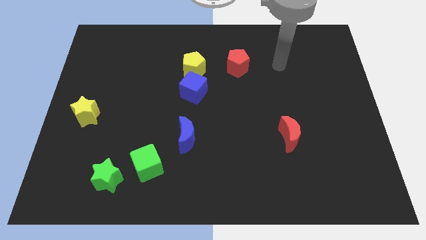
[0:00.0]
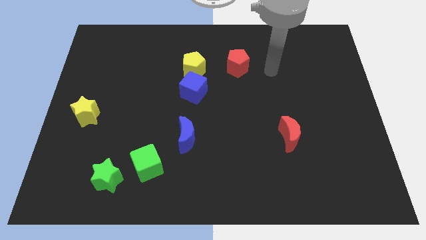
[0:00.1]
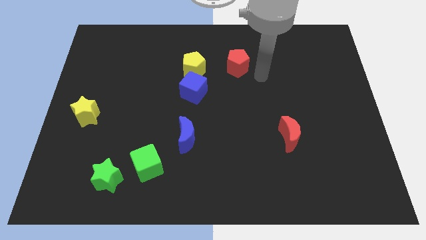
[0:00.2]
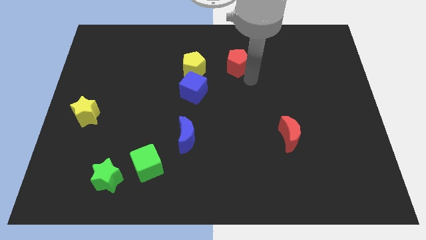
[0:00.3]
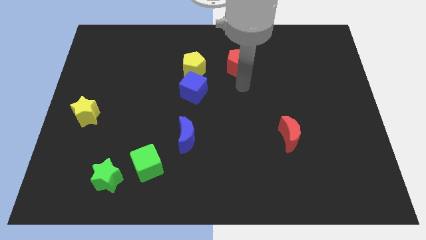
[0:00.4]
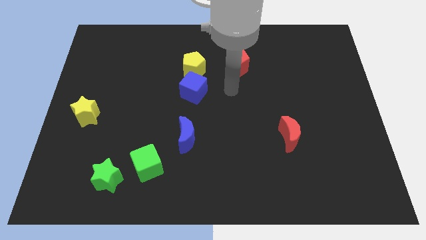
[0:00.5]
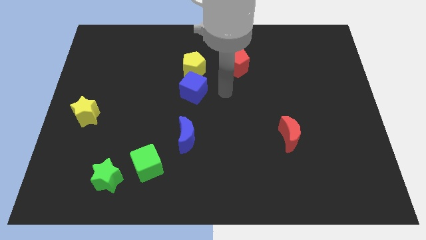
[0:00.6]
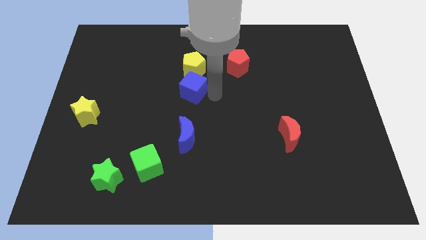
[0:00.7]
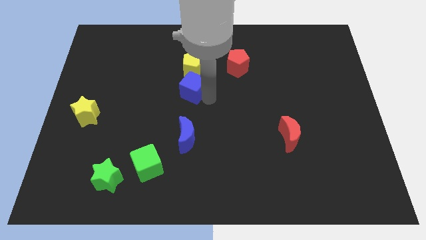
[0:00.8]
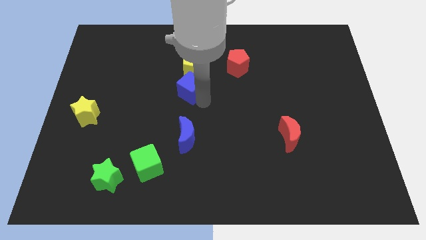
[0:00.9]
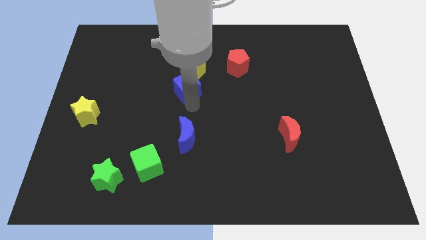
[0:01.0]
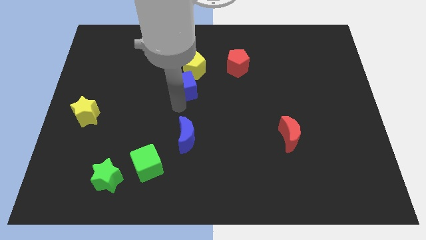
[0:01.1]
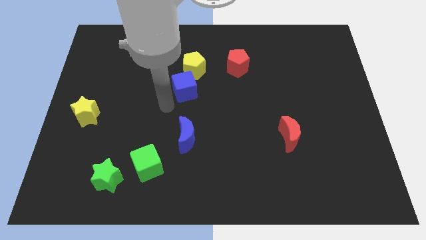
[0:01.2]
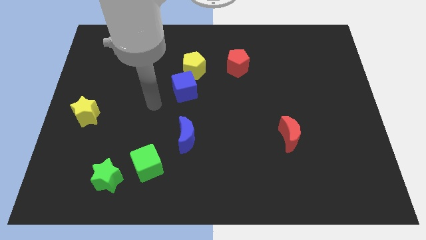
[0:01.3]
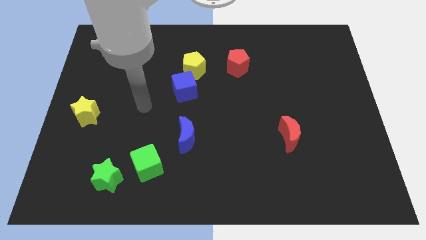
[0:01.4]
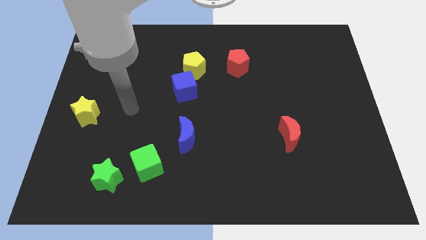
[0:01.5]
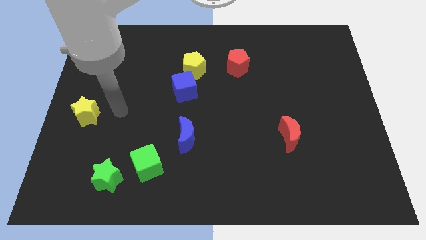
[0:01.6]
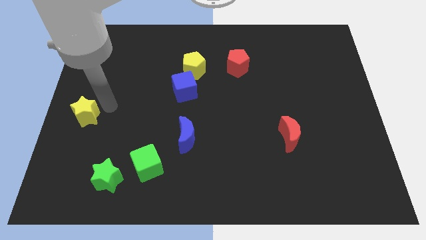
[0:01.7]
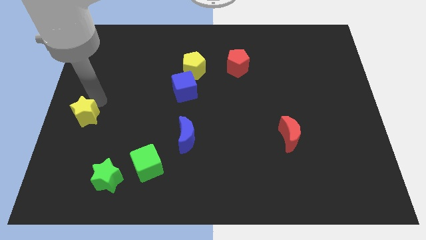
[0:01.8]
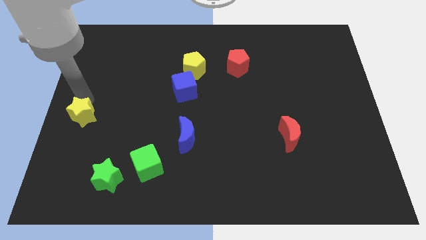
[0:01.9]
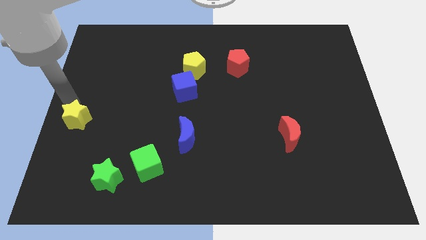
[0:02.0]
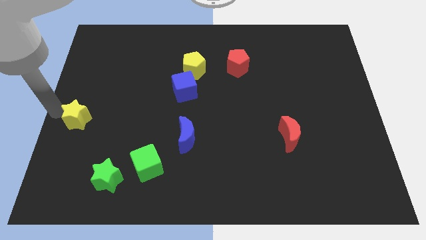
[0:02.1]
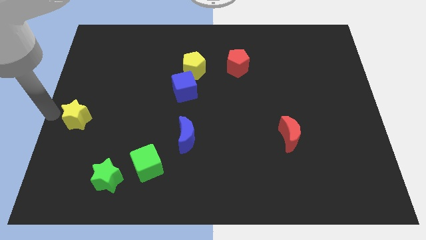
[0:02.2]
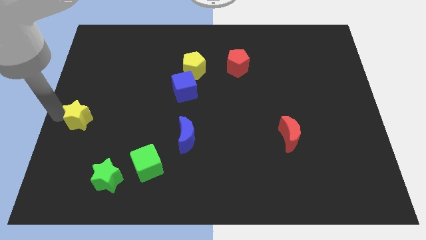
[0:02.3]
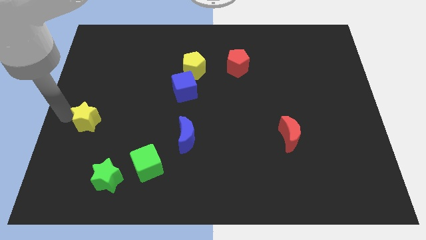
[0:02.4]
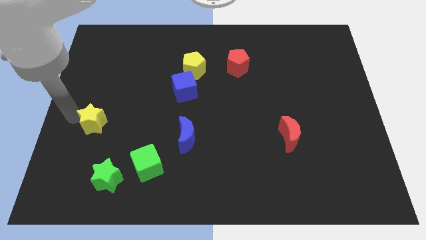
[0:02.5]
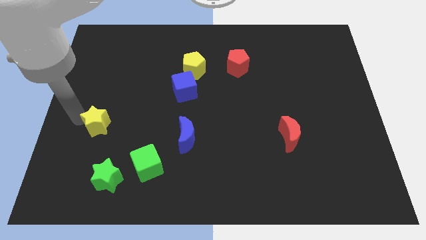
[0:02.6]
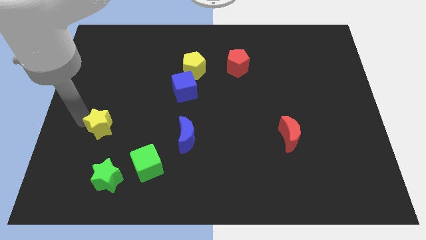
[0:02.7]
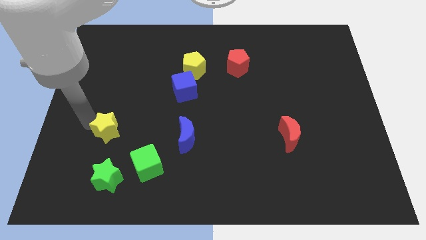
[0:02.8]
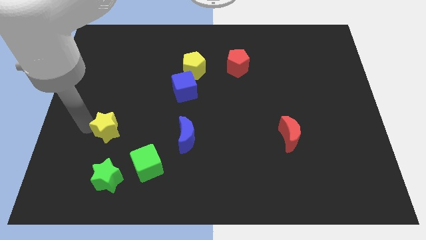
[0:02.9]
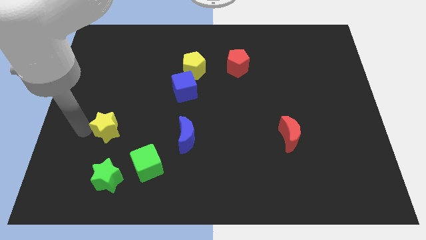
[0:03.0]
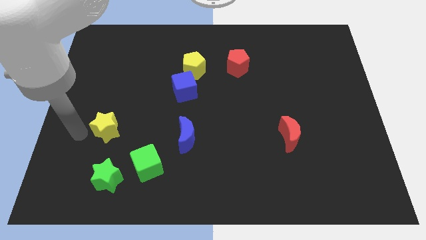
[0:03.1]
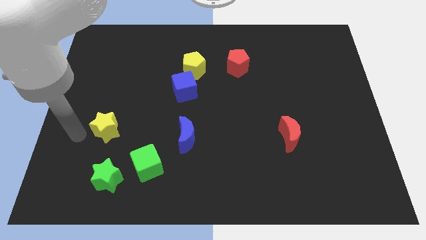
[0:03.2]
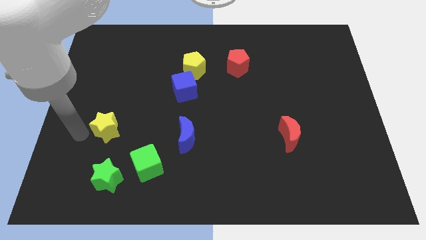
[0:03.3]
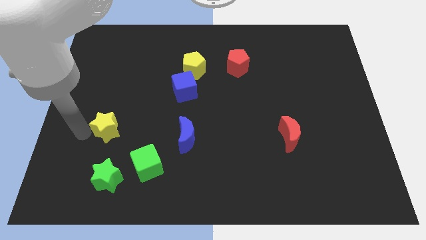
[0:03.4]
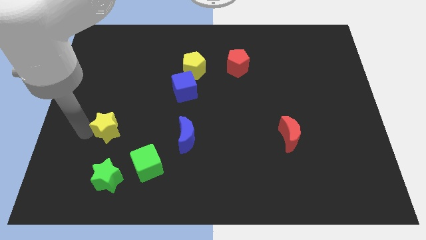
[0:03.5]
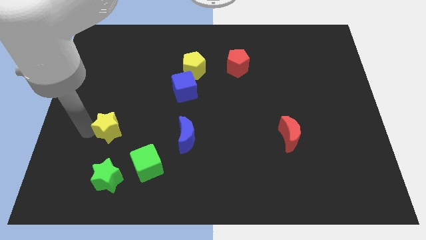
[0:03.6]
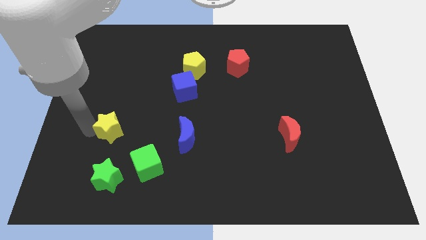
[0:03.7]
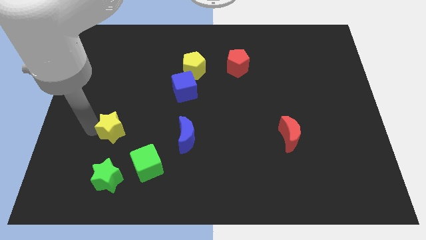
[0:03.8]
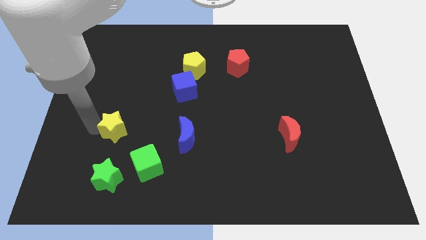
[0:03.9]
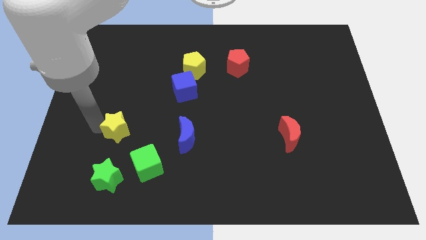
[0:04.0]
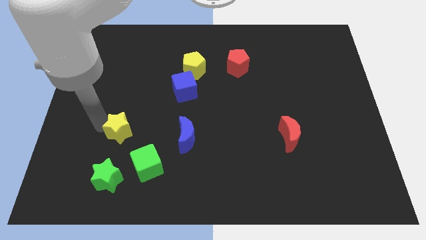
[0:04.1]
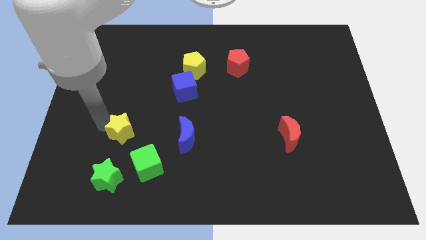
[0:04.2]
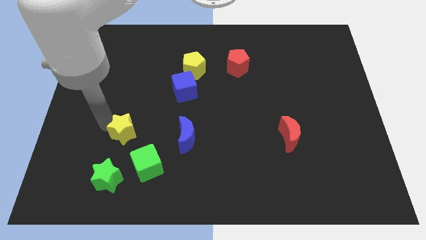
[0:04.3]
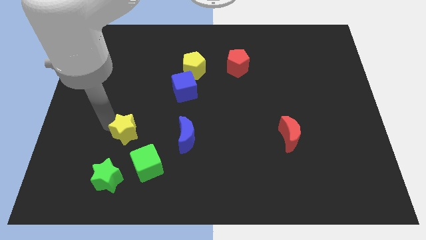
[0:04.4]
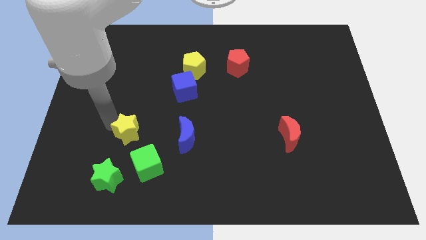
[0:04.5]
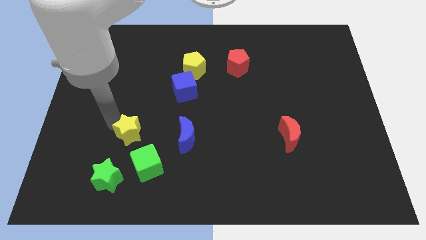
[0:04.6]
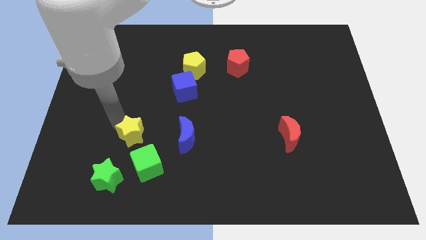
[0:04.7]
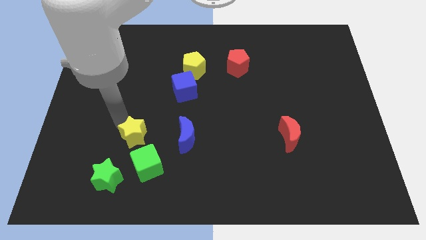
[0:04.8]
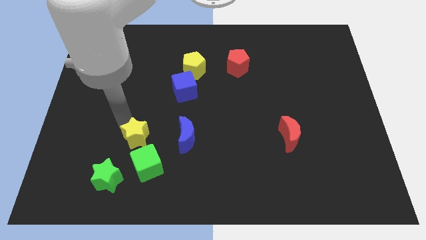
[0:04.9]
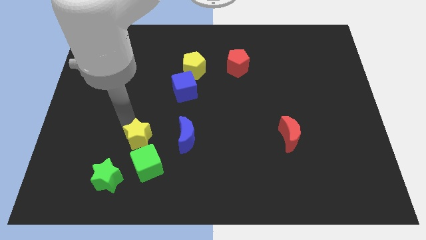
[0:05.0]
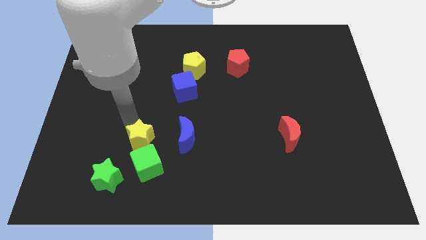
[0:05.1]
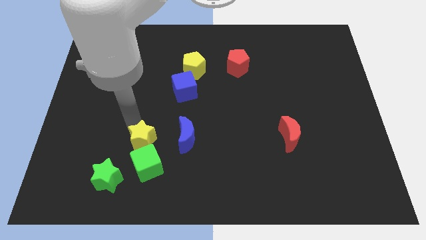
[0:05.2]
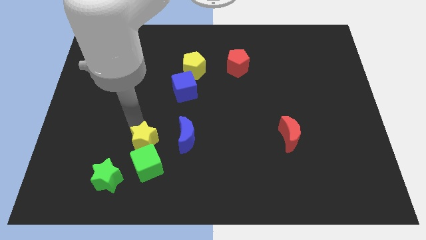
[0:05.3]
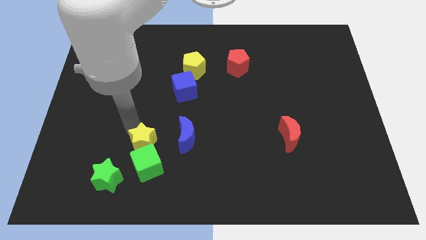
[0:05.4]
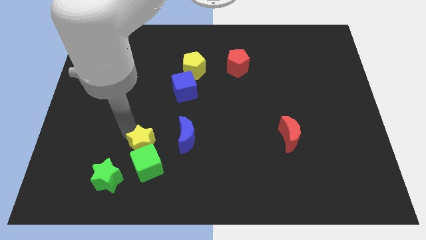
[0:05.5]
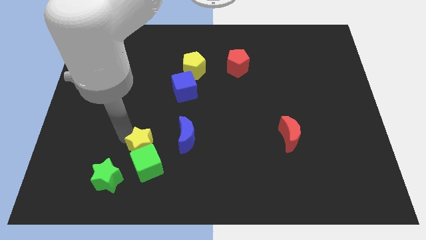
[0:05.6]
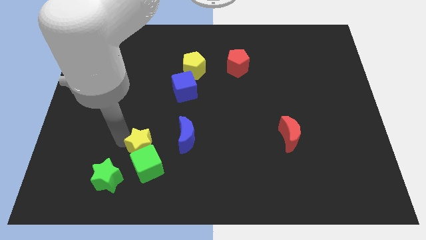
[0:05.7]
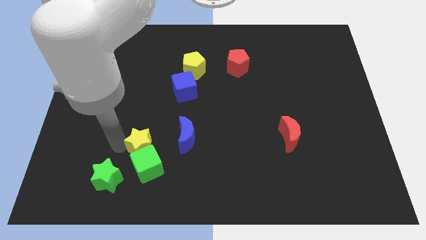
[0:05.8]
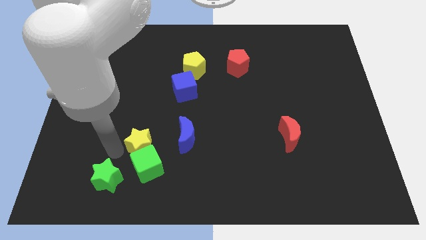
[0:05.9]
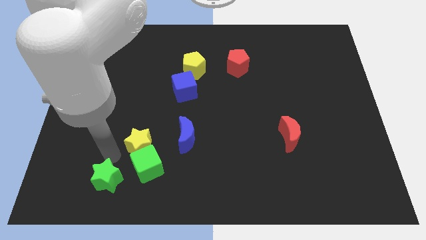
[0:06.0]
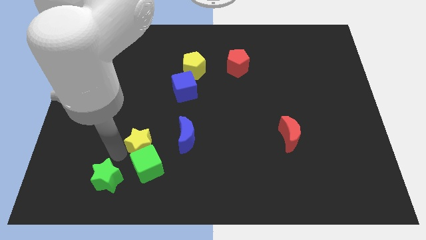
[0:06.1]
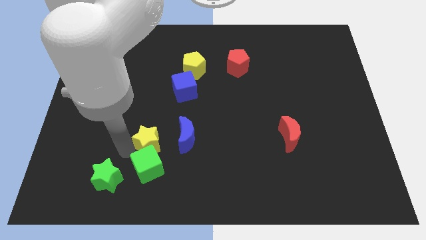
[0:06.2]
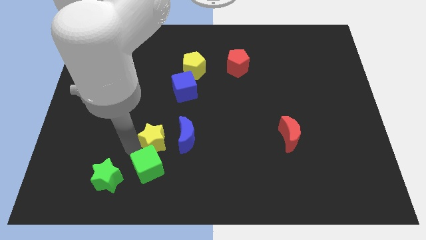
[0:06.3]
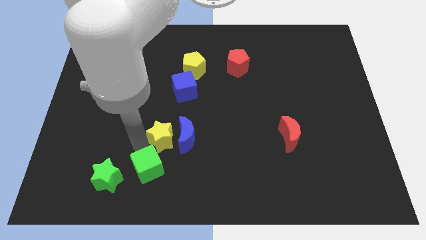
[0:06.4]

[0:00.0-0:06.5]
move the yellow star towards the blue moon
